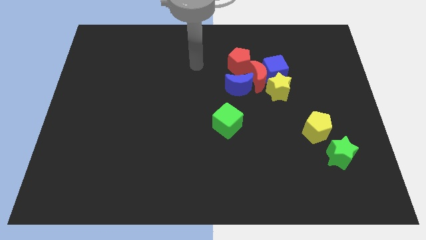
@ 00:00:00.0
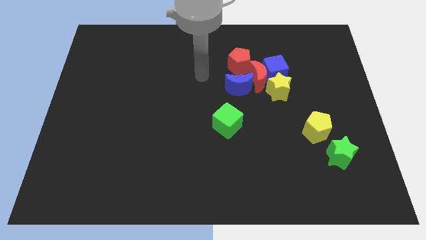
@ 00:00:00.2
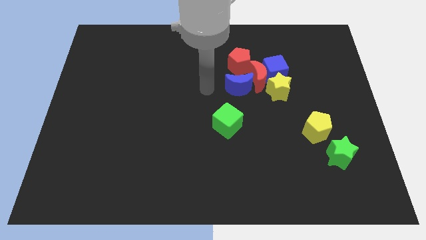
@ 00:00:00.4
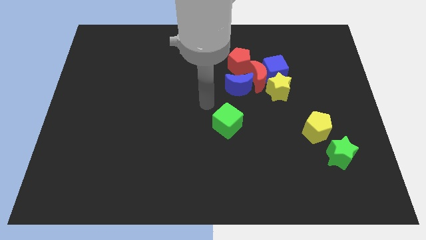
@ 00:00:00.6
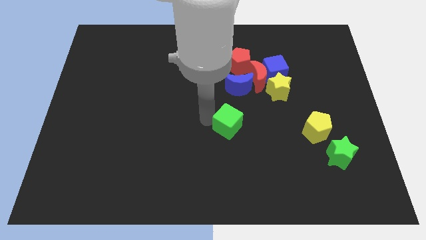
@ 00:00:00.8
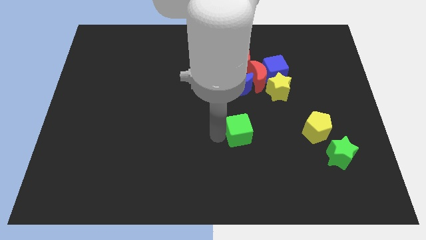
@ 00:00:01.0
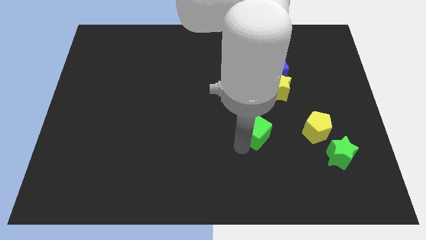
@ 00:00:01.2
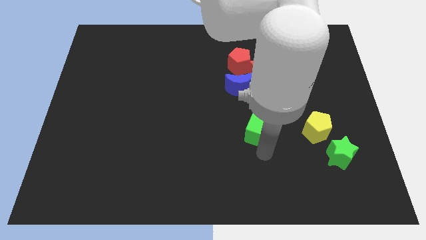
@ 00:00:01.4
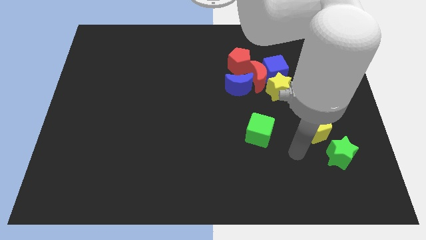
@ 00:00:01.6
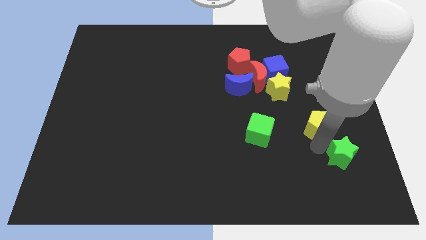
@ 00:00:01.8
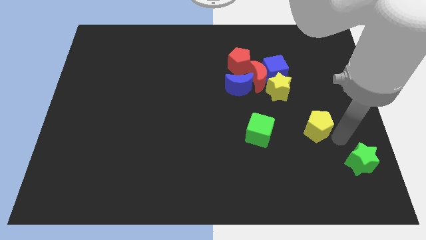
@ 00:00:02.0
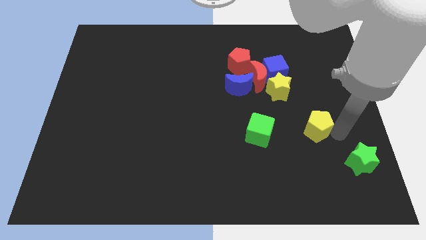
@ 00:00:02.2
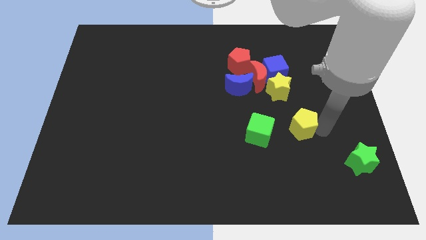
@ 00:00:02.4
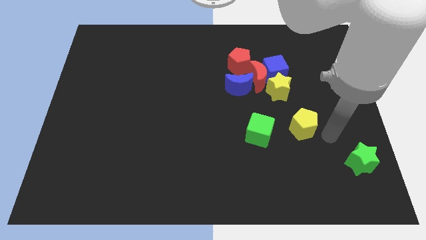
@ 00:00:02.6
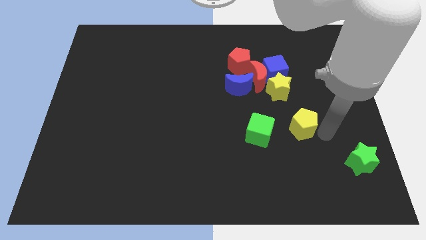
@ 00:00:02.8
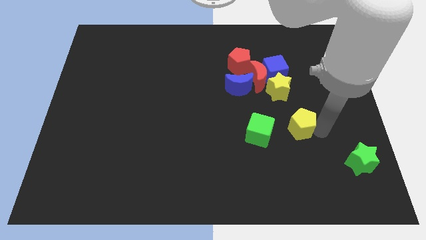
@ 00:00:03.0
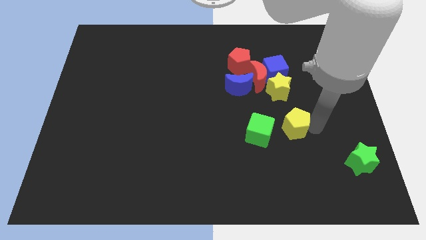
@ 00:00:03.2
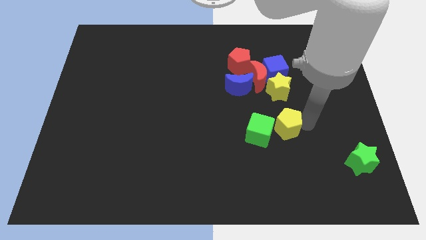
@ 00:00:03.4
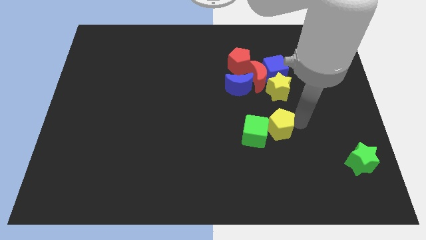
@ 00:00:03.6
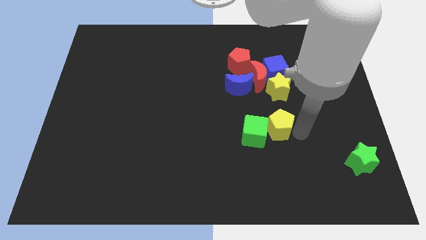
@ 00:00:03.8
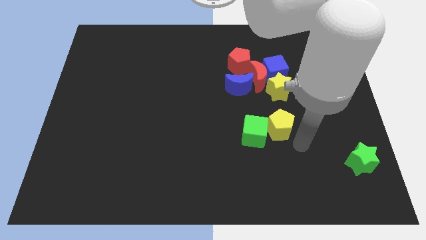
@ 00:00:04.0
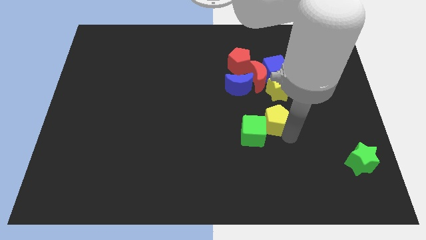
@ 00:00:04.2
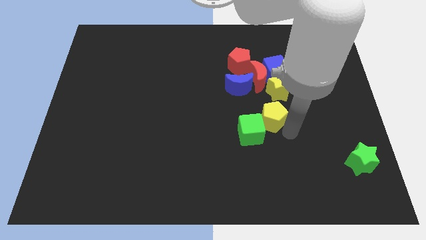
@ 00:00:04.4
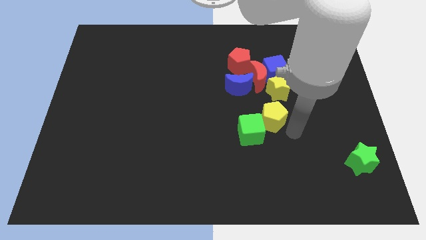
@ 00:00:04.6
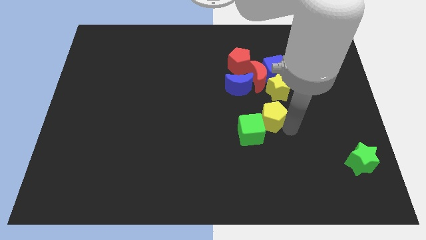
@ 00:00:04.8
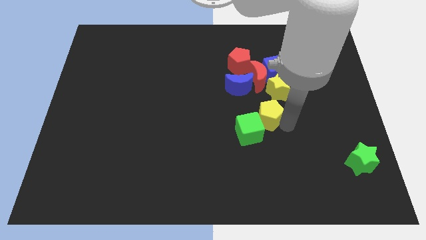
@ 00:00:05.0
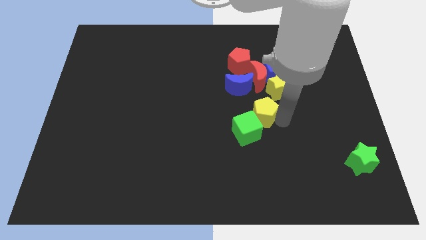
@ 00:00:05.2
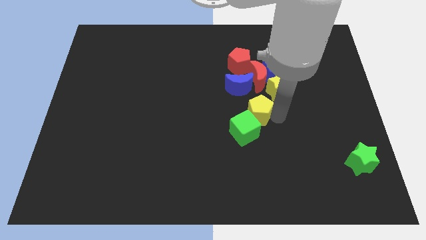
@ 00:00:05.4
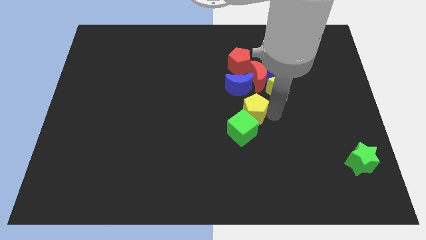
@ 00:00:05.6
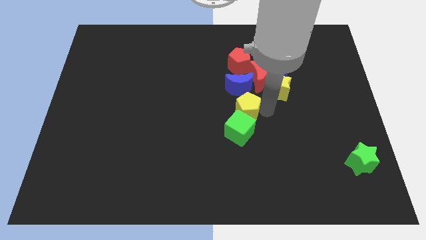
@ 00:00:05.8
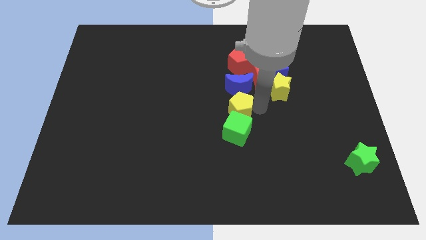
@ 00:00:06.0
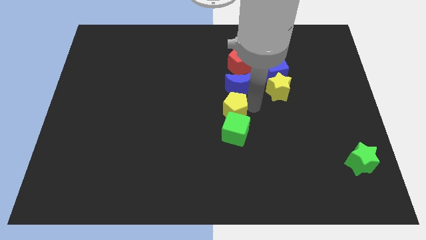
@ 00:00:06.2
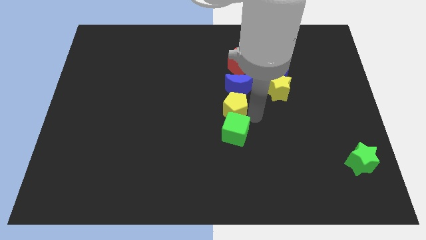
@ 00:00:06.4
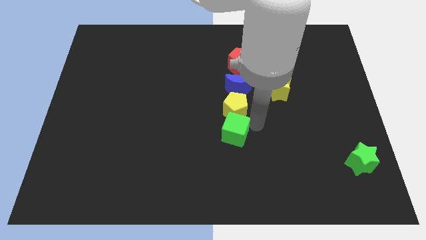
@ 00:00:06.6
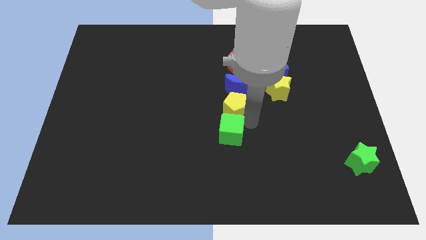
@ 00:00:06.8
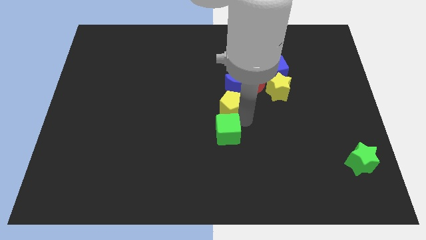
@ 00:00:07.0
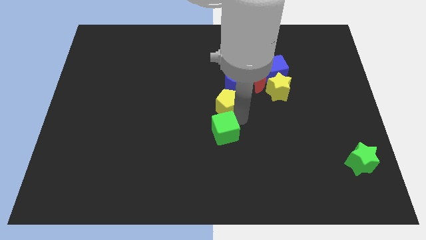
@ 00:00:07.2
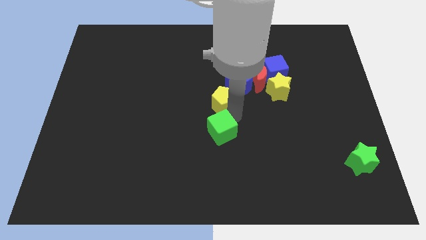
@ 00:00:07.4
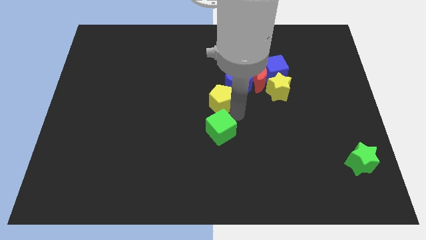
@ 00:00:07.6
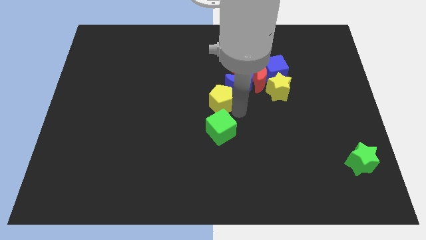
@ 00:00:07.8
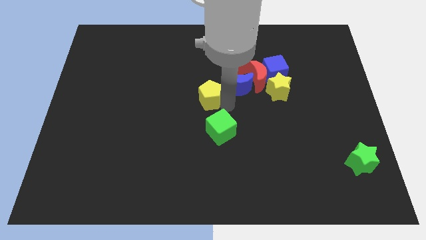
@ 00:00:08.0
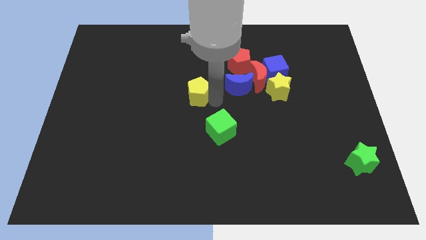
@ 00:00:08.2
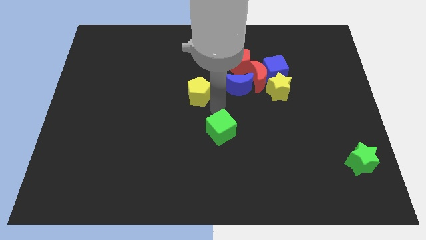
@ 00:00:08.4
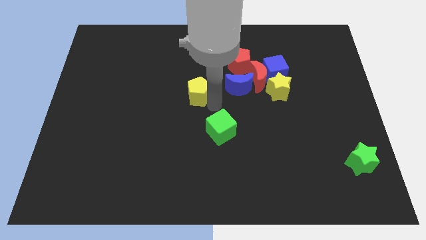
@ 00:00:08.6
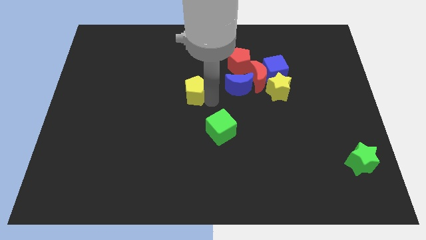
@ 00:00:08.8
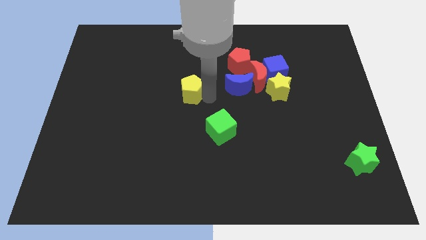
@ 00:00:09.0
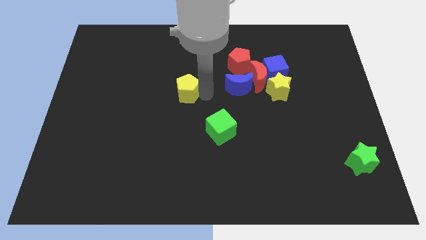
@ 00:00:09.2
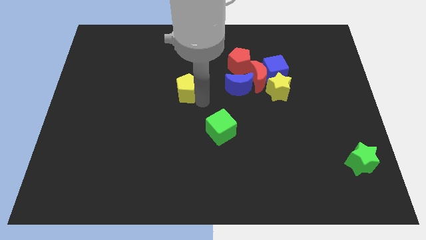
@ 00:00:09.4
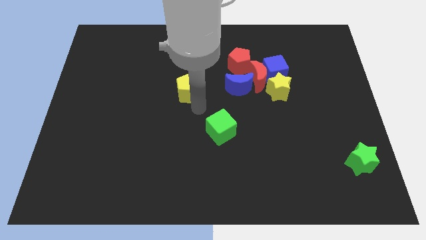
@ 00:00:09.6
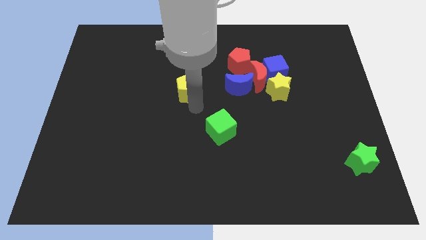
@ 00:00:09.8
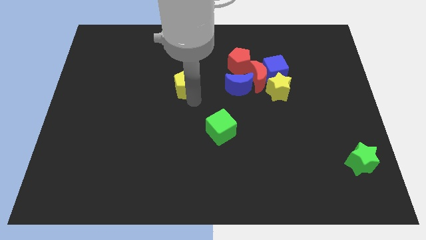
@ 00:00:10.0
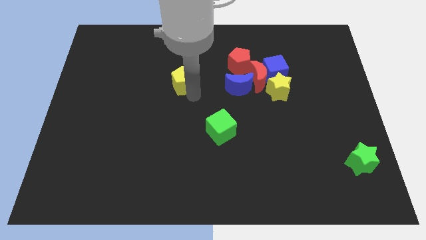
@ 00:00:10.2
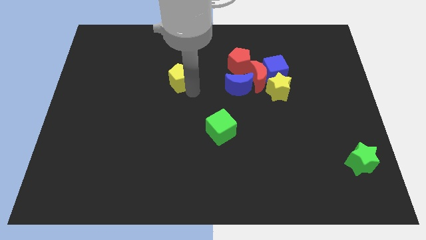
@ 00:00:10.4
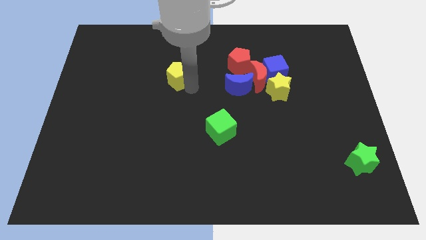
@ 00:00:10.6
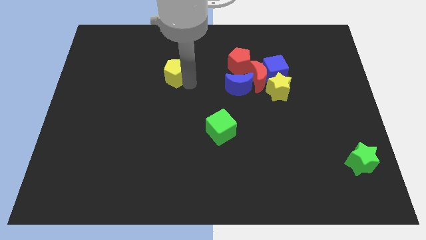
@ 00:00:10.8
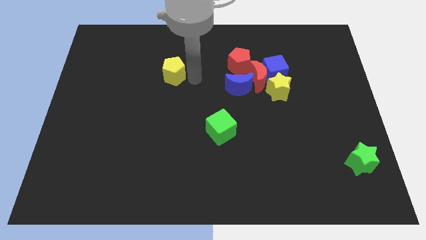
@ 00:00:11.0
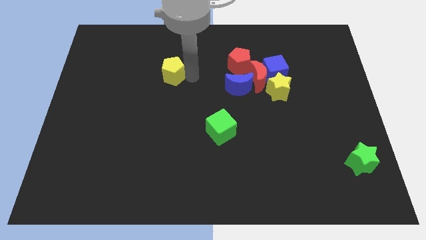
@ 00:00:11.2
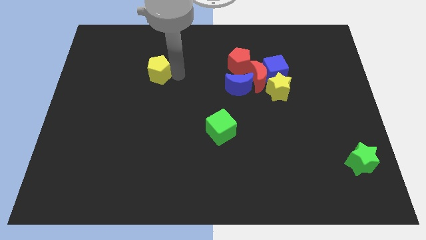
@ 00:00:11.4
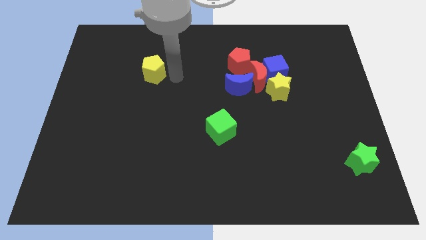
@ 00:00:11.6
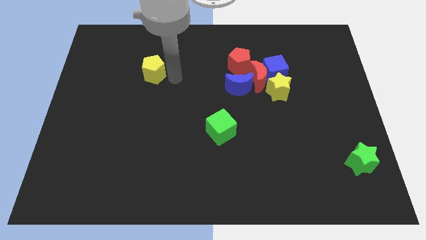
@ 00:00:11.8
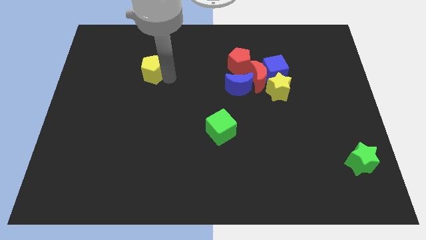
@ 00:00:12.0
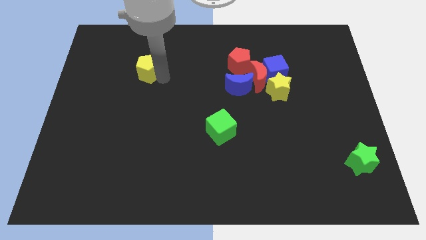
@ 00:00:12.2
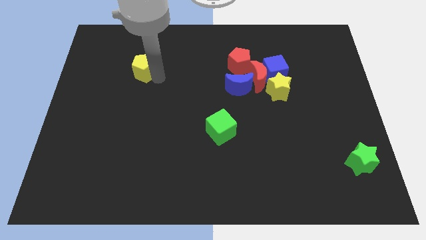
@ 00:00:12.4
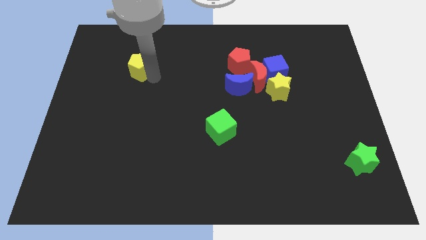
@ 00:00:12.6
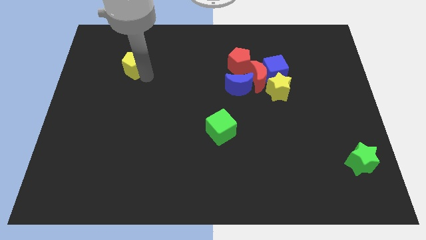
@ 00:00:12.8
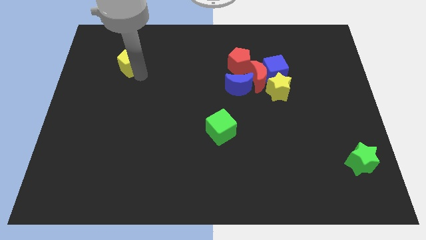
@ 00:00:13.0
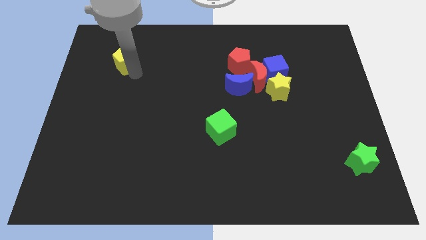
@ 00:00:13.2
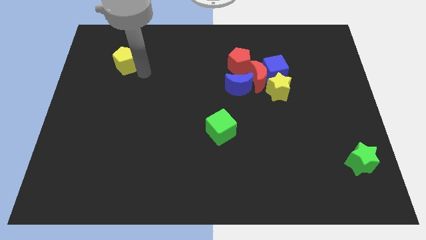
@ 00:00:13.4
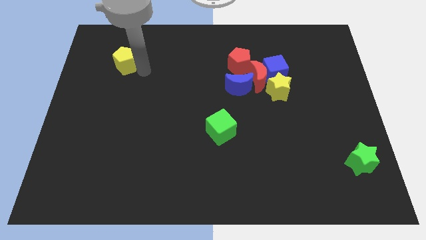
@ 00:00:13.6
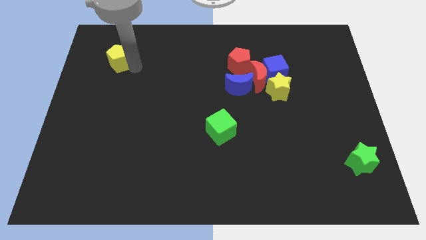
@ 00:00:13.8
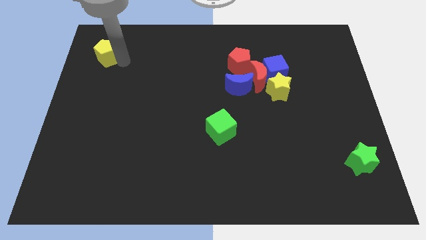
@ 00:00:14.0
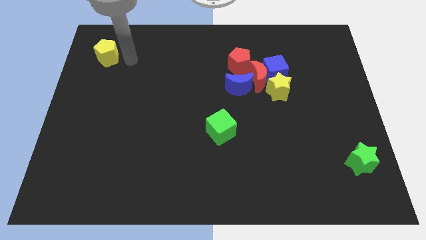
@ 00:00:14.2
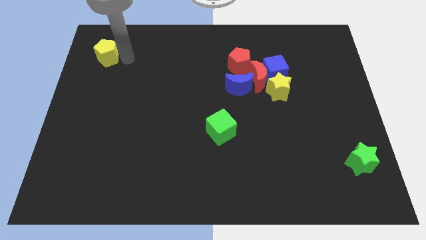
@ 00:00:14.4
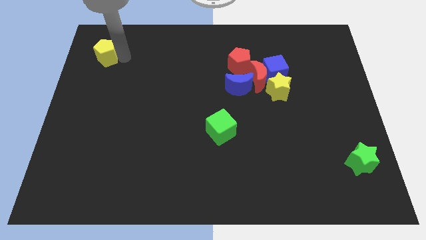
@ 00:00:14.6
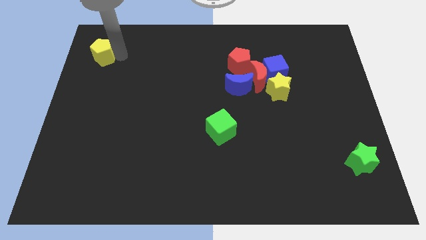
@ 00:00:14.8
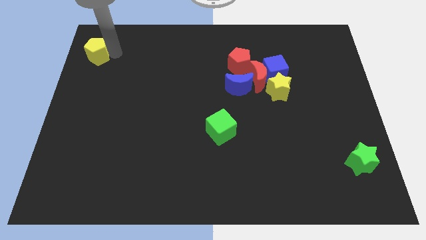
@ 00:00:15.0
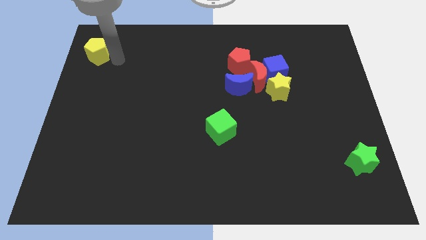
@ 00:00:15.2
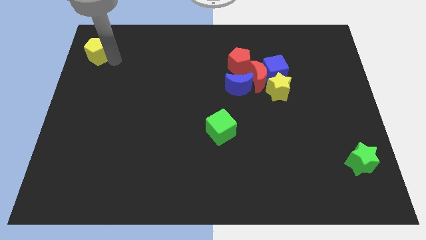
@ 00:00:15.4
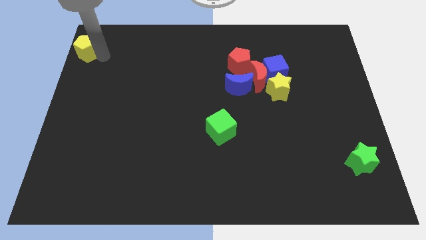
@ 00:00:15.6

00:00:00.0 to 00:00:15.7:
push the yellow pentagon to the top left

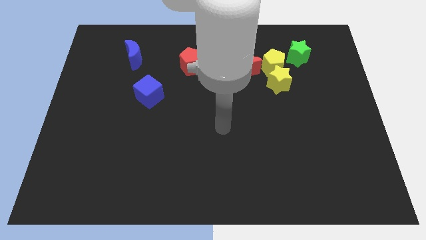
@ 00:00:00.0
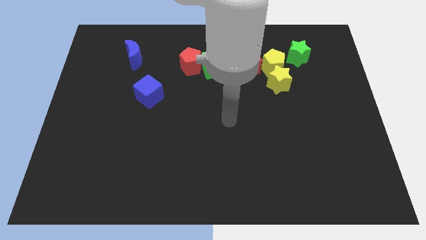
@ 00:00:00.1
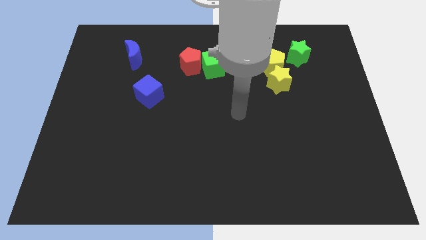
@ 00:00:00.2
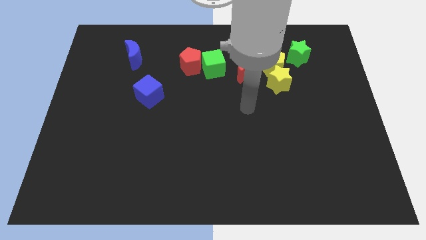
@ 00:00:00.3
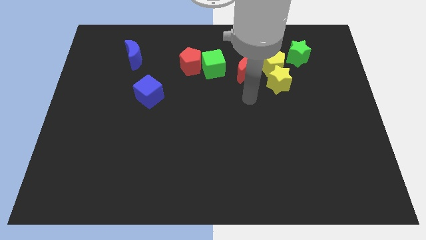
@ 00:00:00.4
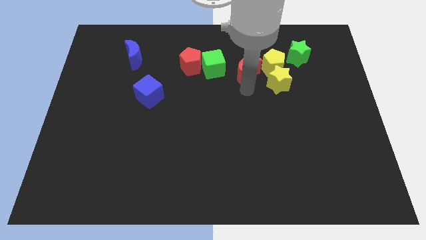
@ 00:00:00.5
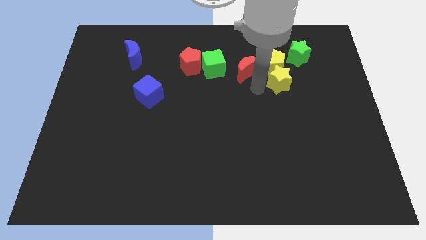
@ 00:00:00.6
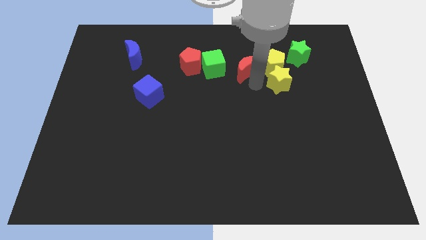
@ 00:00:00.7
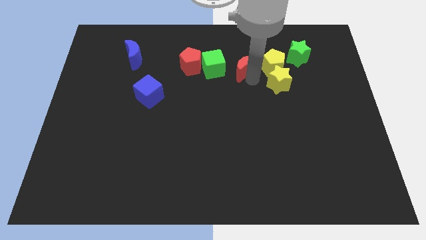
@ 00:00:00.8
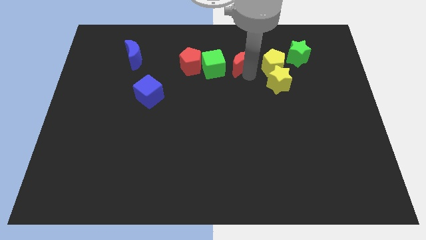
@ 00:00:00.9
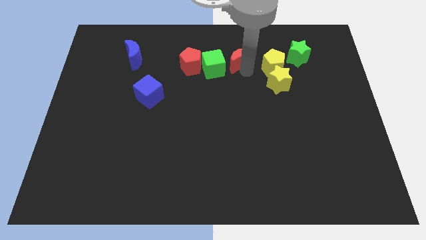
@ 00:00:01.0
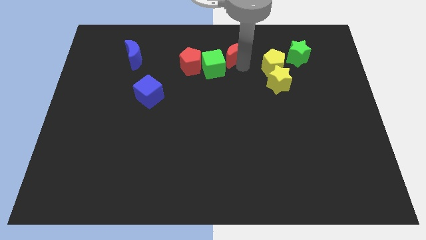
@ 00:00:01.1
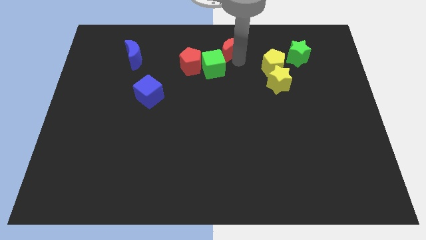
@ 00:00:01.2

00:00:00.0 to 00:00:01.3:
push the red moon to the towards your base
